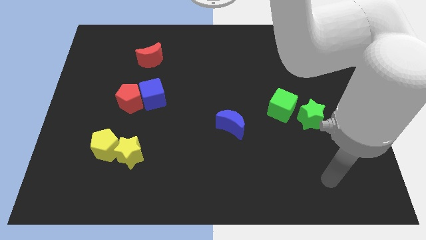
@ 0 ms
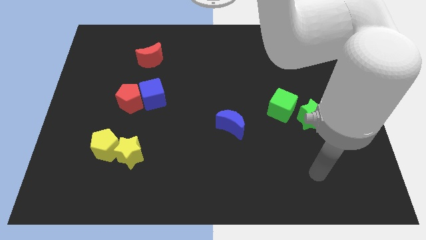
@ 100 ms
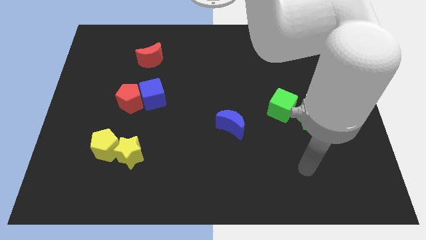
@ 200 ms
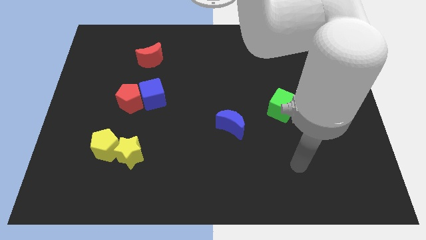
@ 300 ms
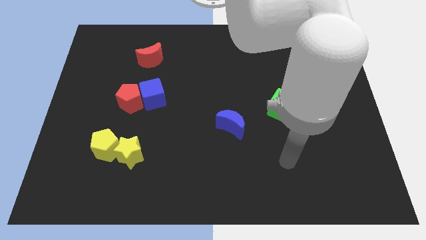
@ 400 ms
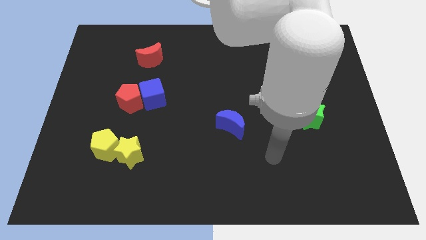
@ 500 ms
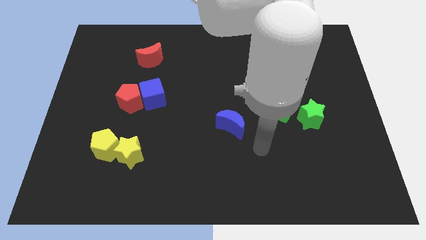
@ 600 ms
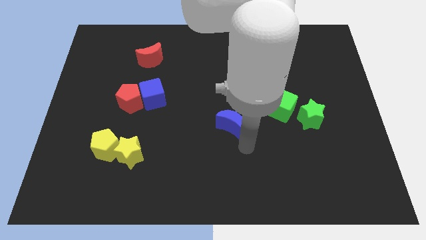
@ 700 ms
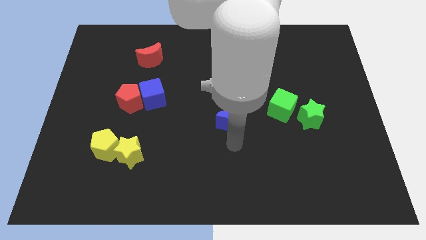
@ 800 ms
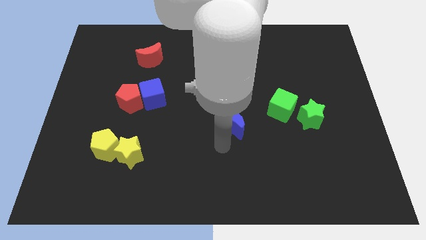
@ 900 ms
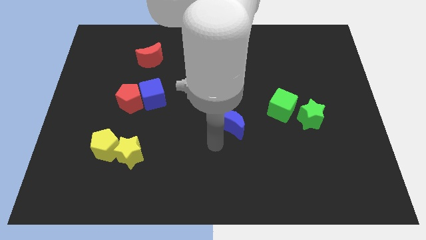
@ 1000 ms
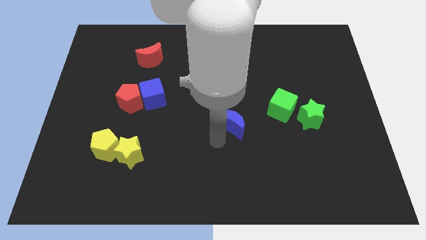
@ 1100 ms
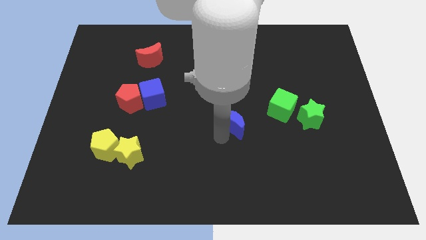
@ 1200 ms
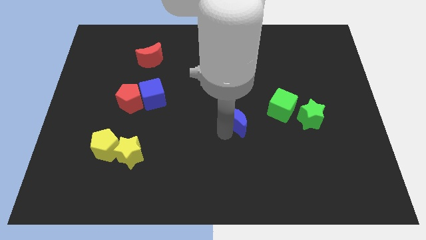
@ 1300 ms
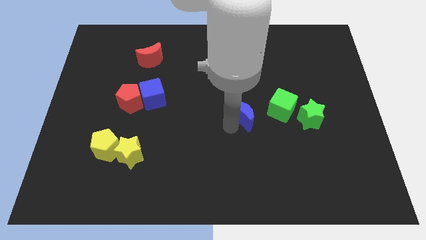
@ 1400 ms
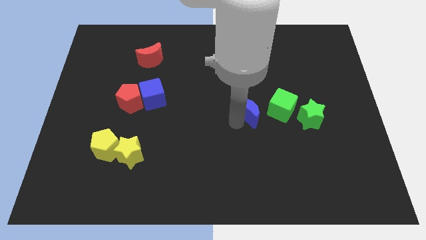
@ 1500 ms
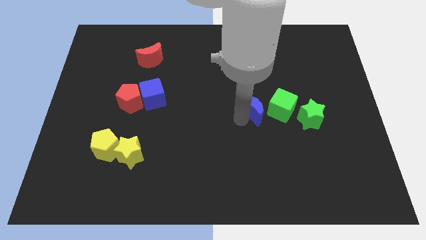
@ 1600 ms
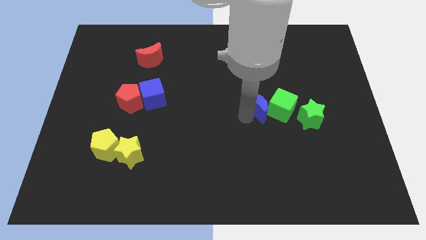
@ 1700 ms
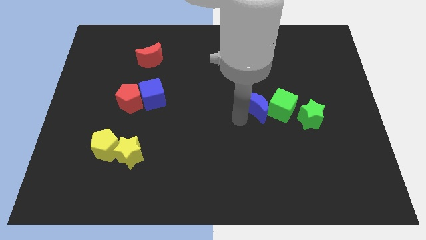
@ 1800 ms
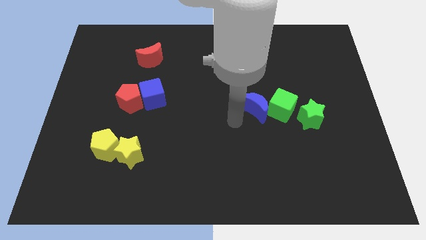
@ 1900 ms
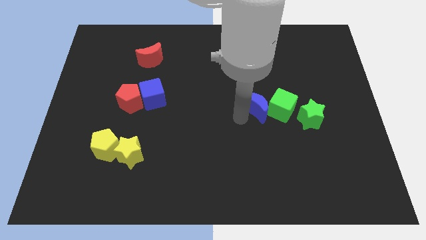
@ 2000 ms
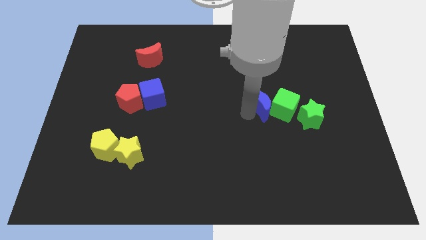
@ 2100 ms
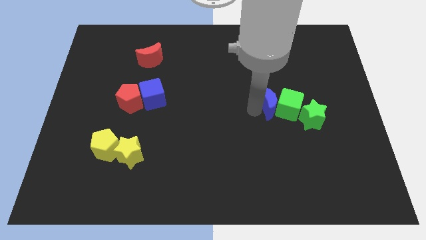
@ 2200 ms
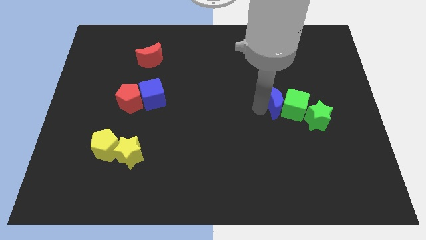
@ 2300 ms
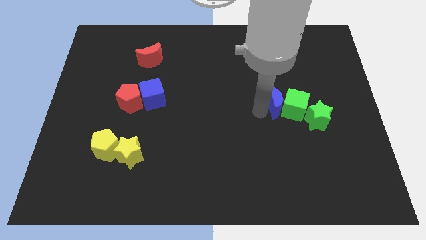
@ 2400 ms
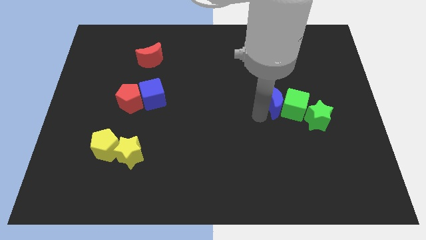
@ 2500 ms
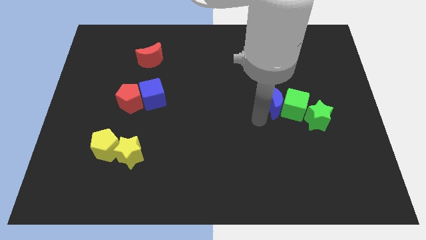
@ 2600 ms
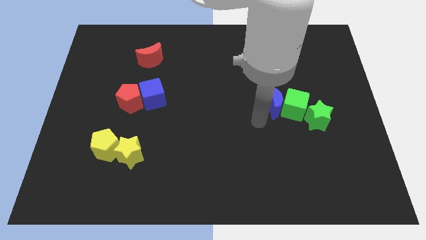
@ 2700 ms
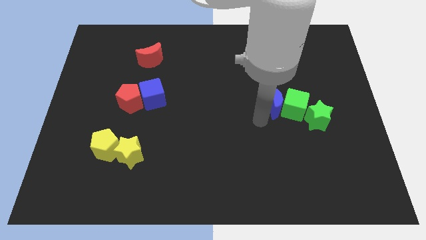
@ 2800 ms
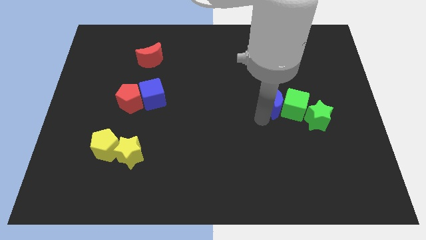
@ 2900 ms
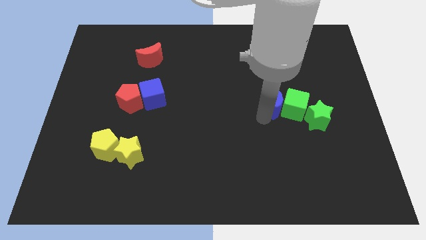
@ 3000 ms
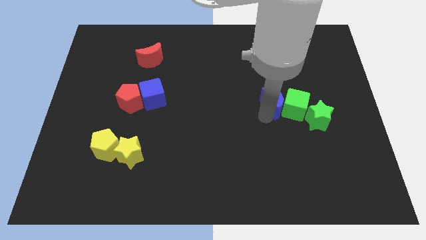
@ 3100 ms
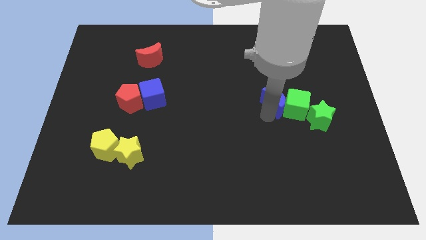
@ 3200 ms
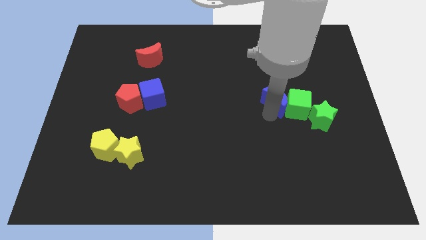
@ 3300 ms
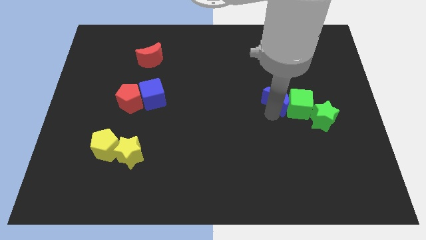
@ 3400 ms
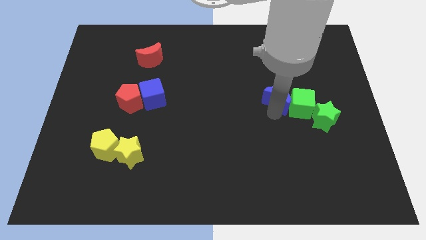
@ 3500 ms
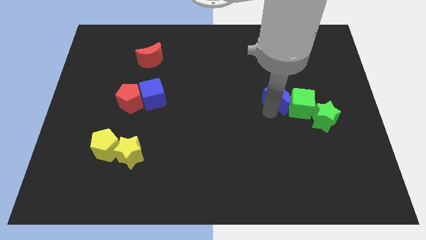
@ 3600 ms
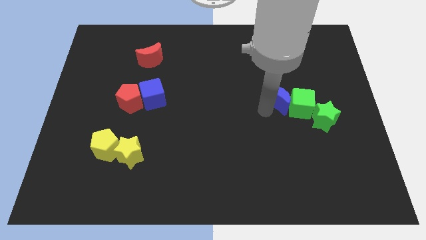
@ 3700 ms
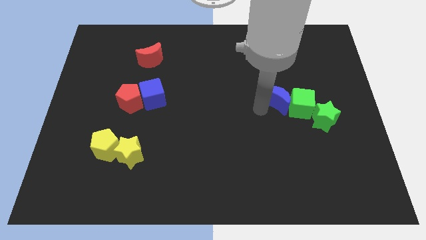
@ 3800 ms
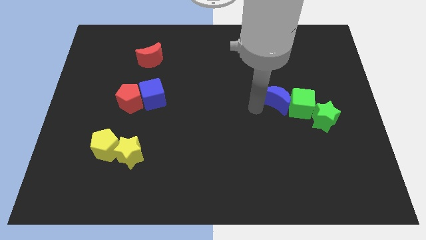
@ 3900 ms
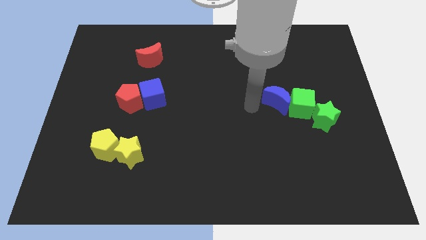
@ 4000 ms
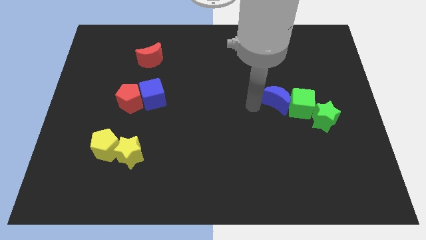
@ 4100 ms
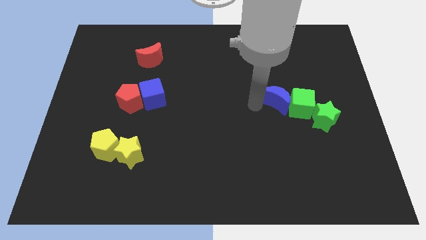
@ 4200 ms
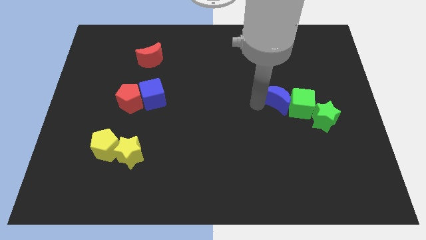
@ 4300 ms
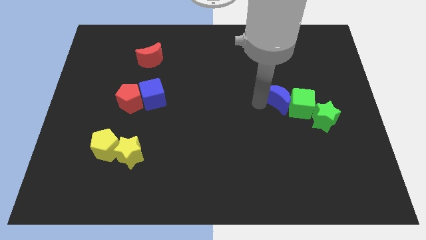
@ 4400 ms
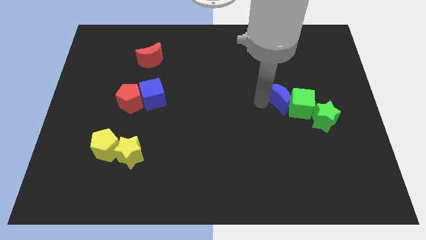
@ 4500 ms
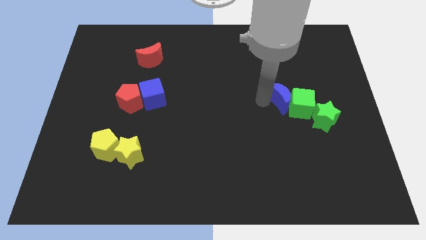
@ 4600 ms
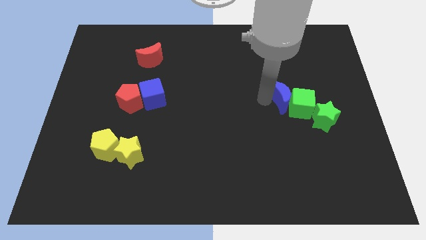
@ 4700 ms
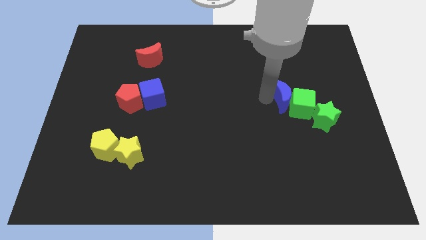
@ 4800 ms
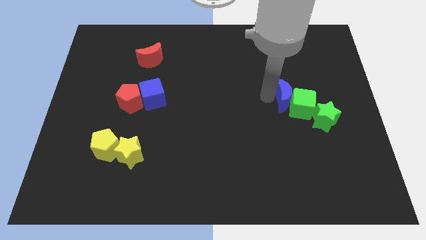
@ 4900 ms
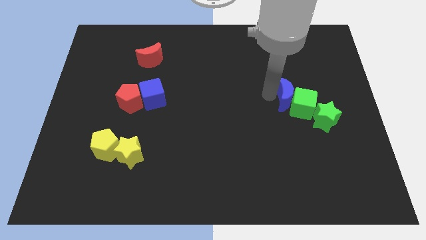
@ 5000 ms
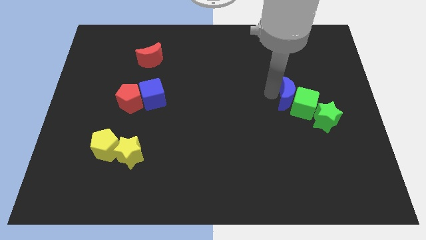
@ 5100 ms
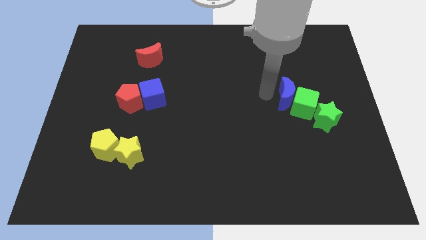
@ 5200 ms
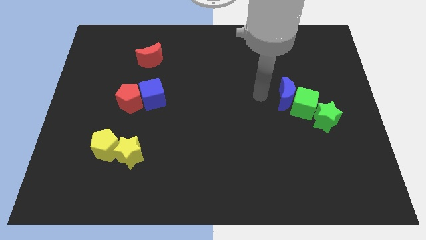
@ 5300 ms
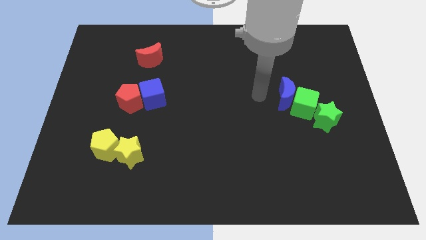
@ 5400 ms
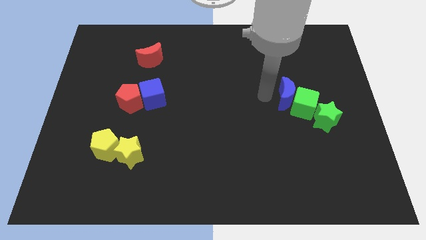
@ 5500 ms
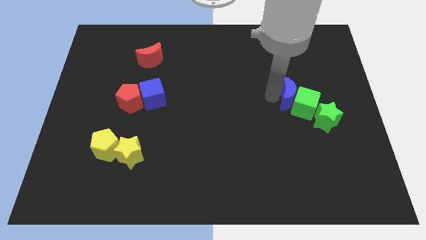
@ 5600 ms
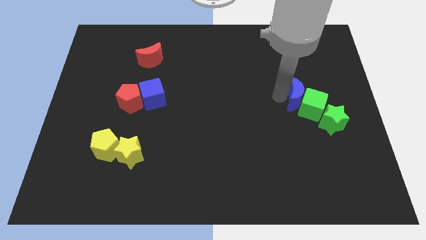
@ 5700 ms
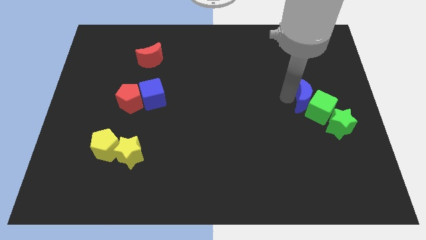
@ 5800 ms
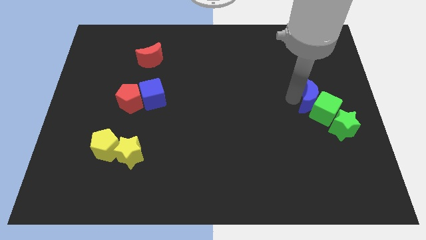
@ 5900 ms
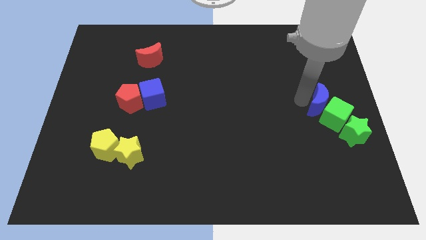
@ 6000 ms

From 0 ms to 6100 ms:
move the blue moon to the right side

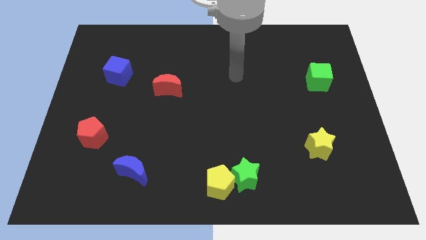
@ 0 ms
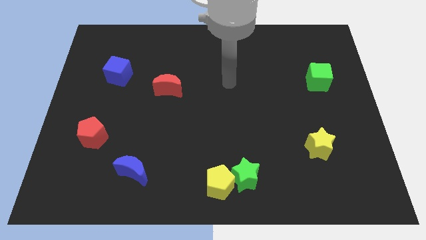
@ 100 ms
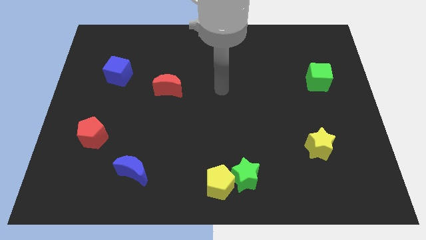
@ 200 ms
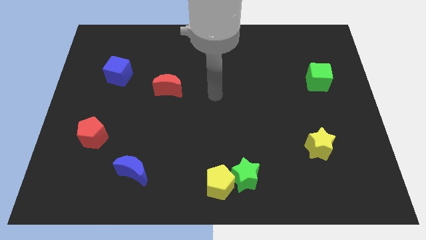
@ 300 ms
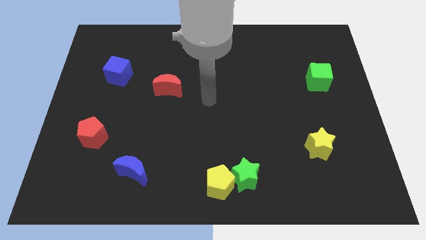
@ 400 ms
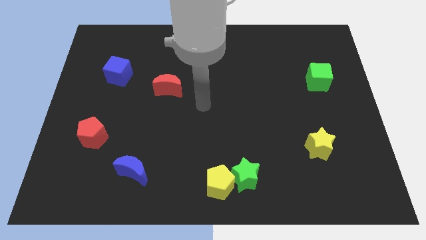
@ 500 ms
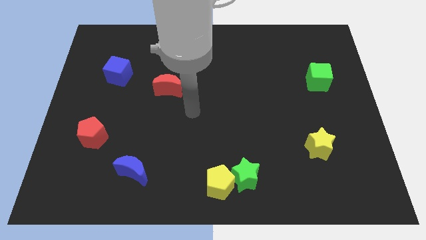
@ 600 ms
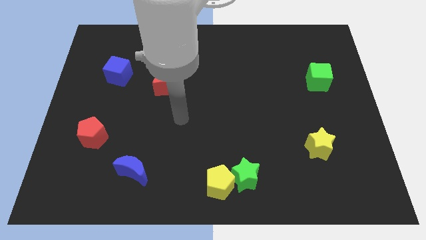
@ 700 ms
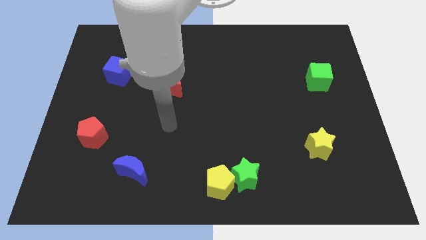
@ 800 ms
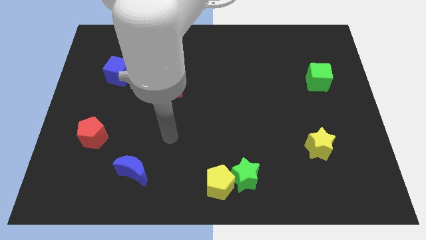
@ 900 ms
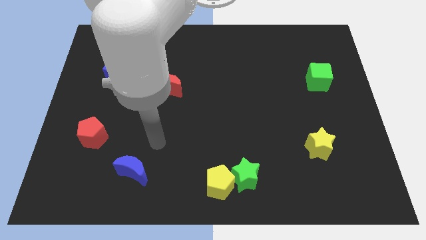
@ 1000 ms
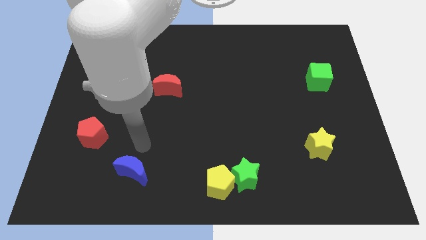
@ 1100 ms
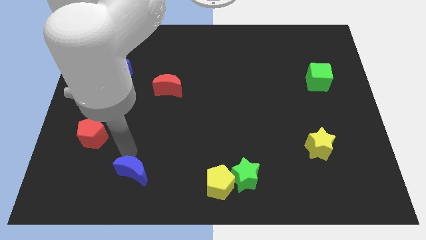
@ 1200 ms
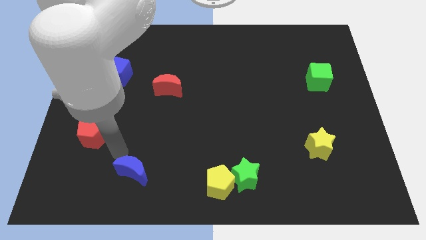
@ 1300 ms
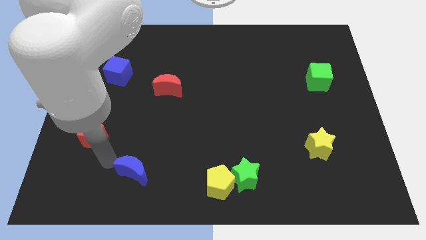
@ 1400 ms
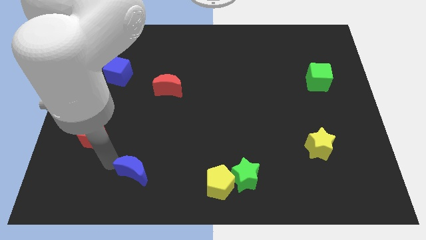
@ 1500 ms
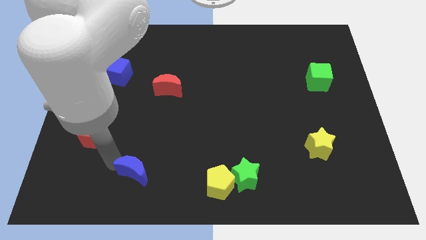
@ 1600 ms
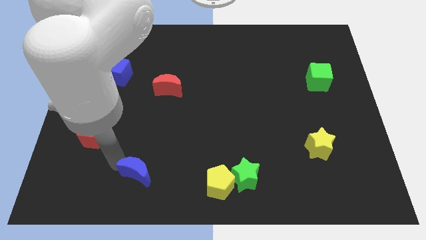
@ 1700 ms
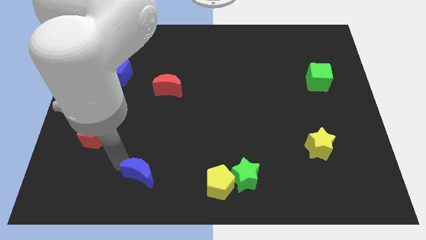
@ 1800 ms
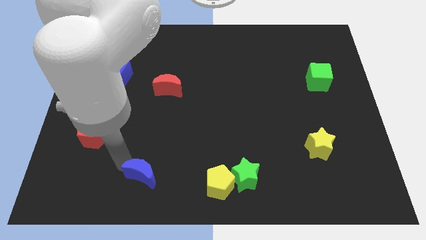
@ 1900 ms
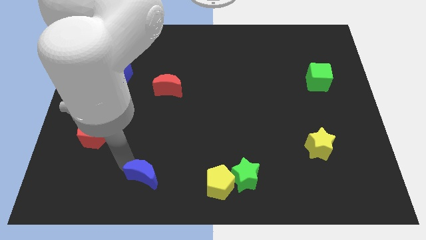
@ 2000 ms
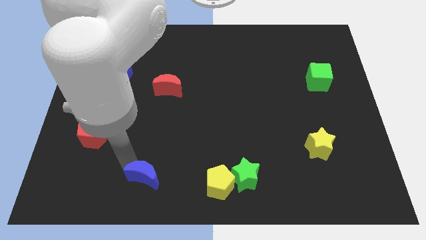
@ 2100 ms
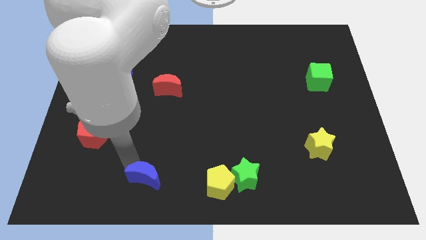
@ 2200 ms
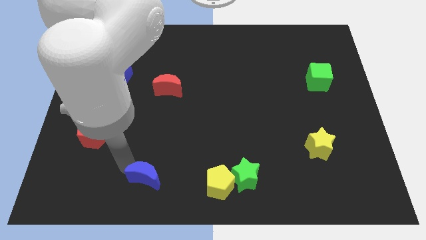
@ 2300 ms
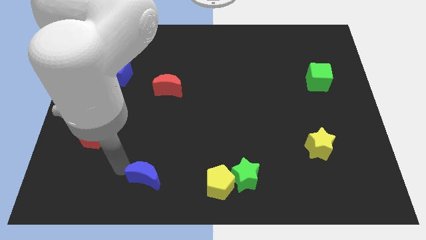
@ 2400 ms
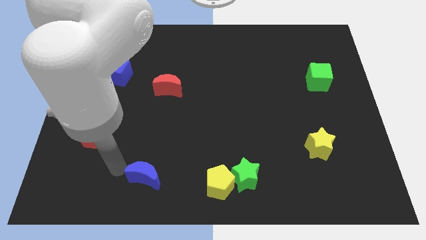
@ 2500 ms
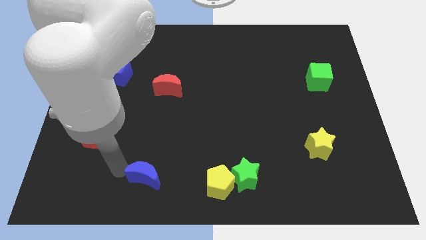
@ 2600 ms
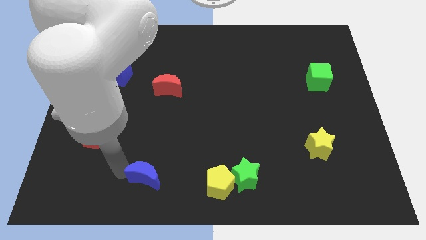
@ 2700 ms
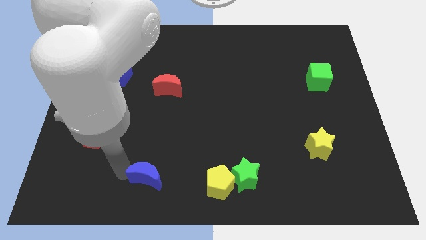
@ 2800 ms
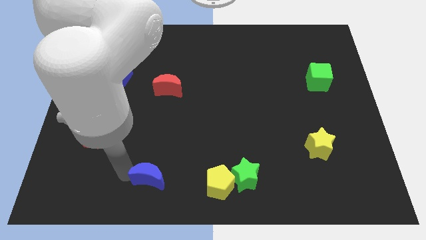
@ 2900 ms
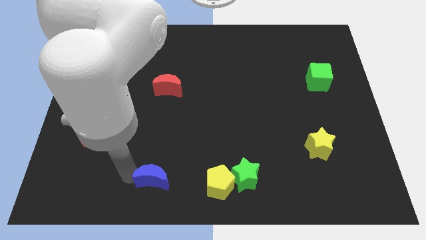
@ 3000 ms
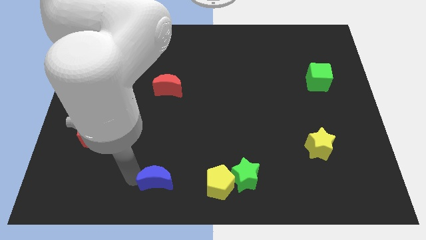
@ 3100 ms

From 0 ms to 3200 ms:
move the blue moon to the bottom
